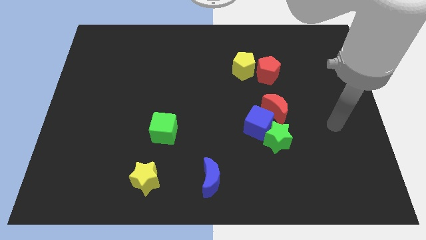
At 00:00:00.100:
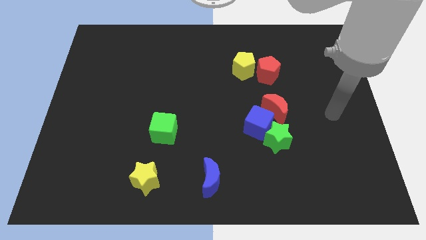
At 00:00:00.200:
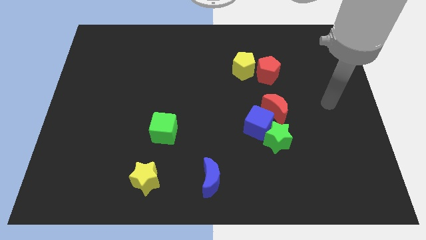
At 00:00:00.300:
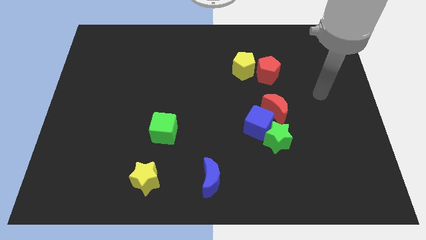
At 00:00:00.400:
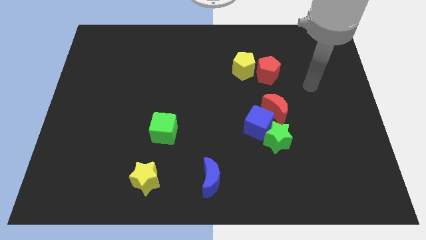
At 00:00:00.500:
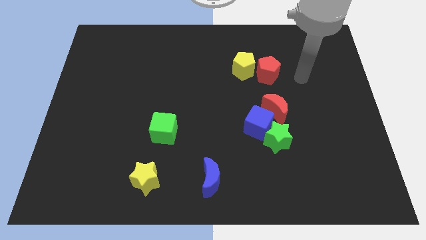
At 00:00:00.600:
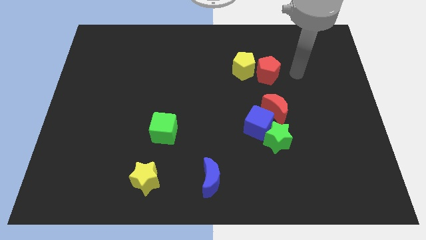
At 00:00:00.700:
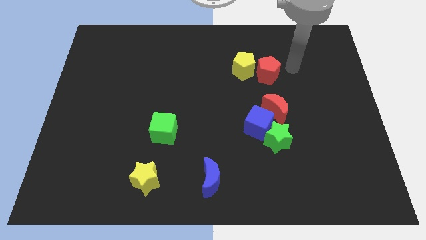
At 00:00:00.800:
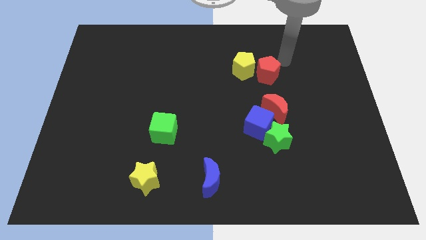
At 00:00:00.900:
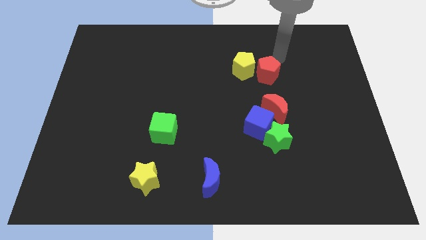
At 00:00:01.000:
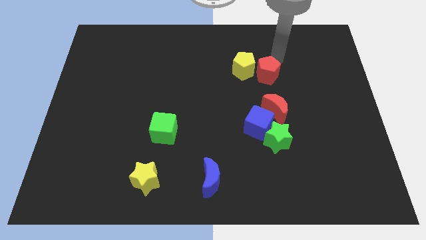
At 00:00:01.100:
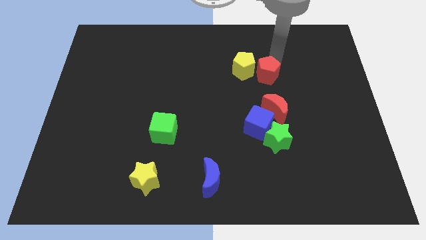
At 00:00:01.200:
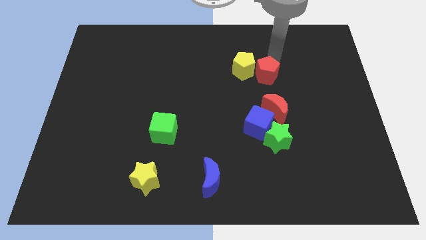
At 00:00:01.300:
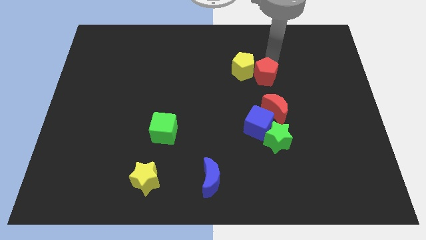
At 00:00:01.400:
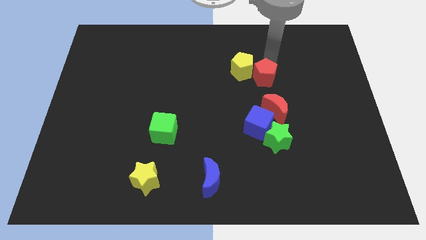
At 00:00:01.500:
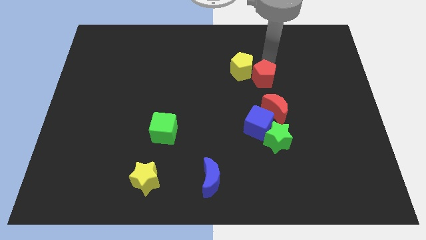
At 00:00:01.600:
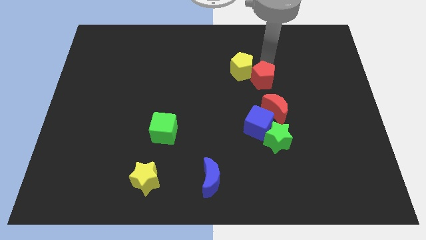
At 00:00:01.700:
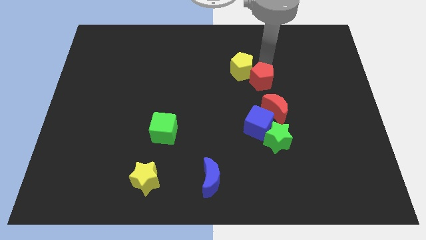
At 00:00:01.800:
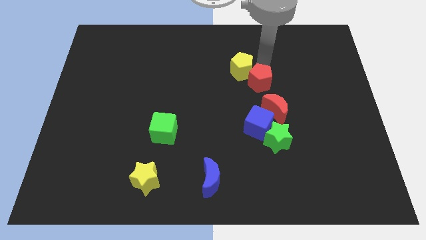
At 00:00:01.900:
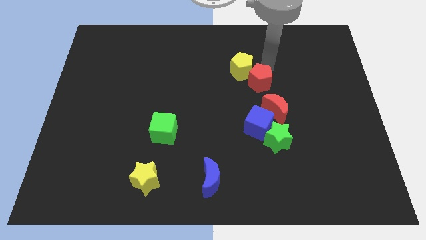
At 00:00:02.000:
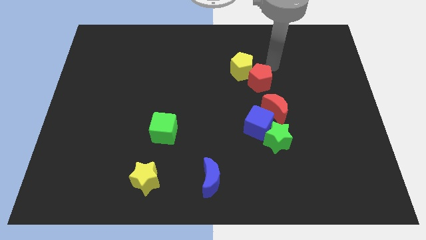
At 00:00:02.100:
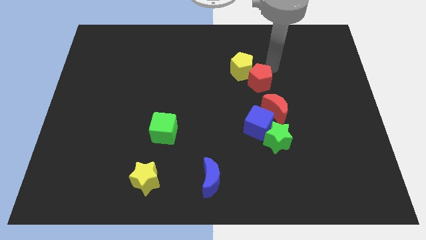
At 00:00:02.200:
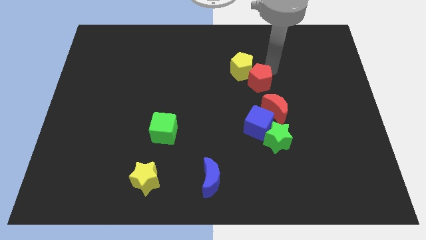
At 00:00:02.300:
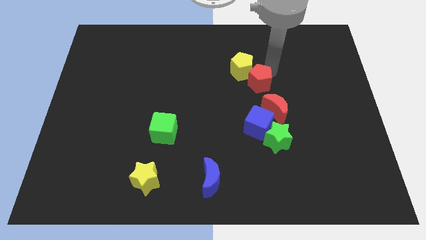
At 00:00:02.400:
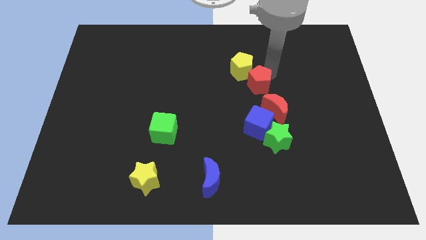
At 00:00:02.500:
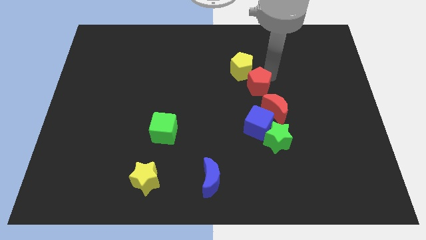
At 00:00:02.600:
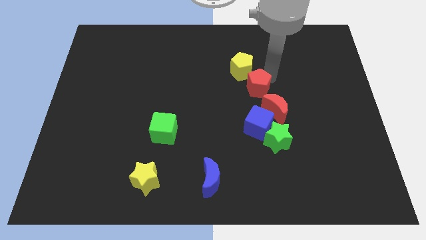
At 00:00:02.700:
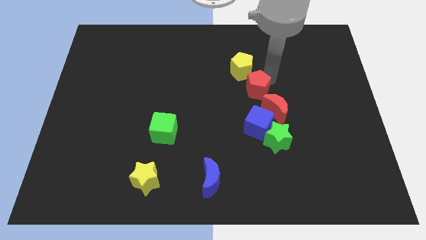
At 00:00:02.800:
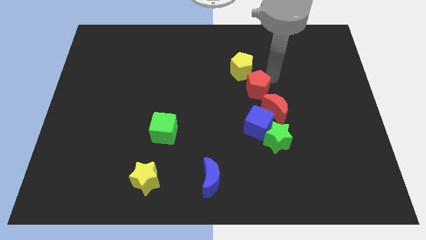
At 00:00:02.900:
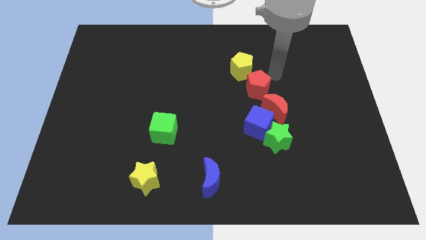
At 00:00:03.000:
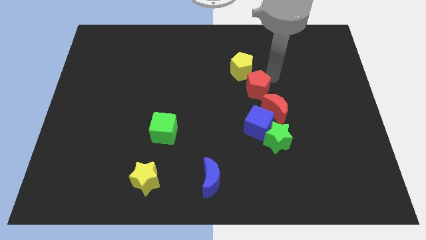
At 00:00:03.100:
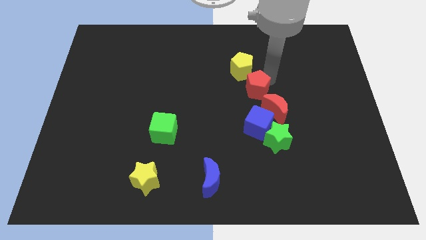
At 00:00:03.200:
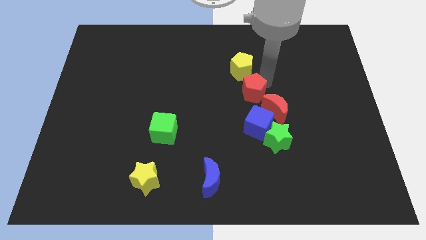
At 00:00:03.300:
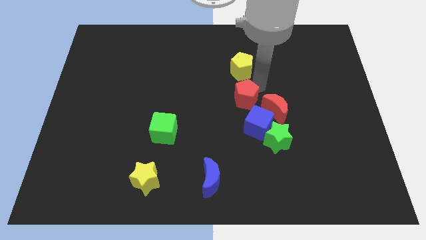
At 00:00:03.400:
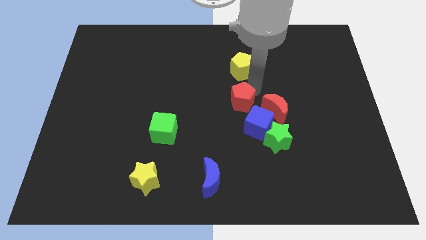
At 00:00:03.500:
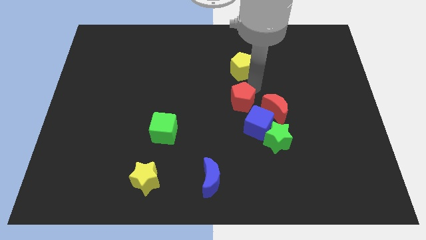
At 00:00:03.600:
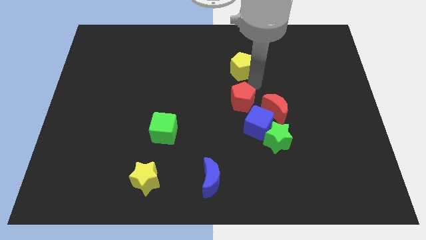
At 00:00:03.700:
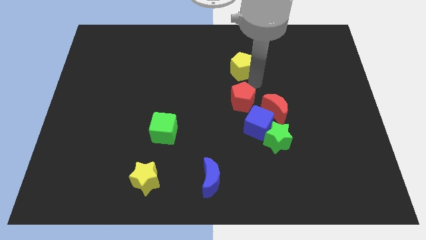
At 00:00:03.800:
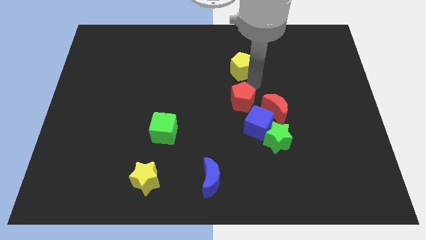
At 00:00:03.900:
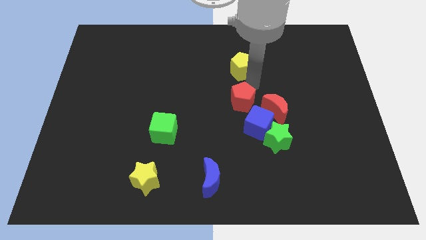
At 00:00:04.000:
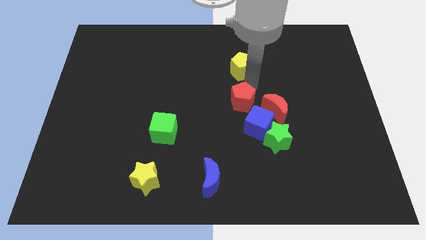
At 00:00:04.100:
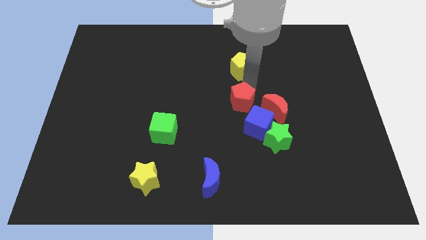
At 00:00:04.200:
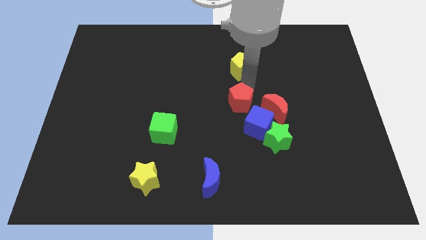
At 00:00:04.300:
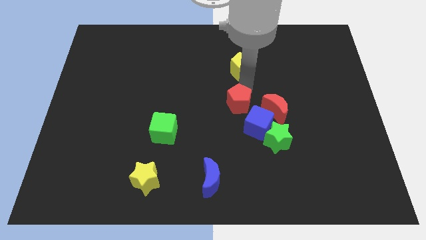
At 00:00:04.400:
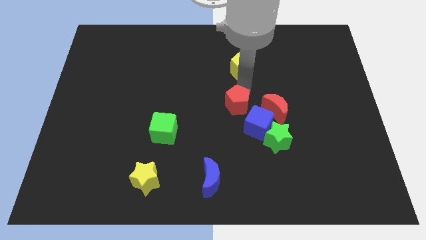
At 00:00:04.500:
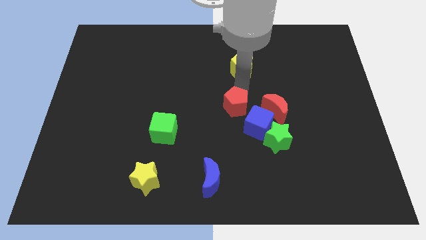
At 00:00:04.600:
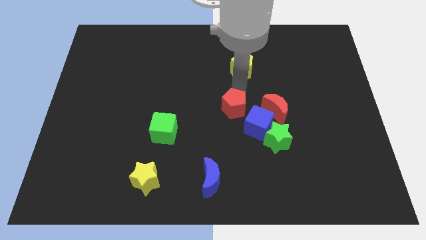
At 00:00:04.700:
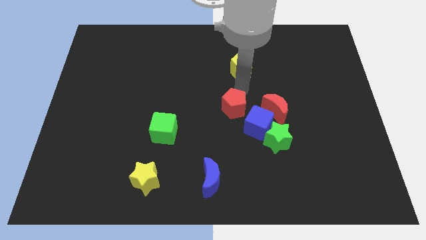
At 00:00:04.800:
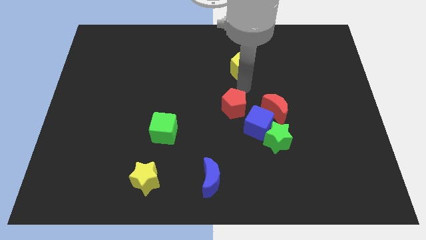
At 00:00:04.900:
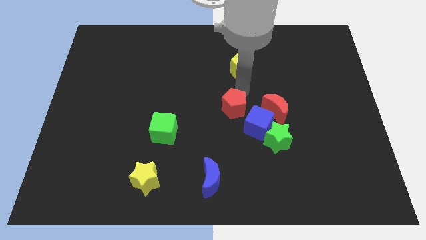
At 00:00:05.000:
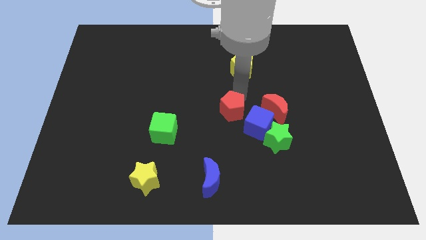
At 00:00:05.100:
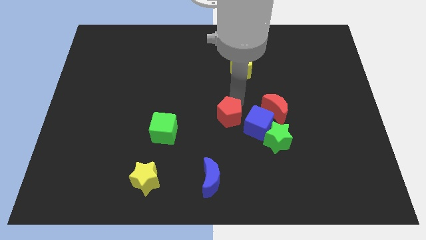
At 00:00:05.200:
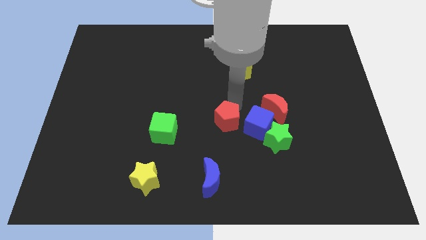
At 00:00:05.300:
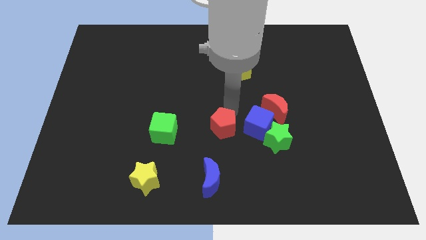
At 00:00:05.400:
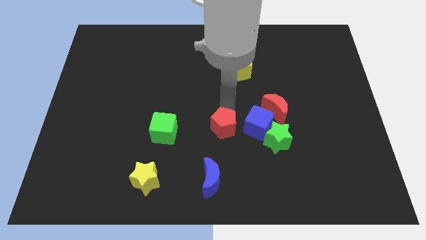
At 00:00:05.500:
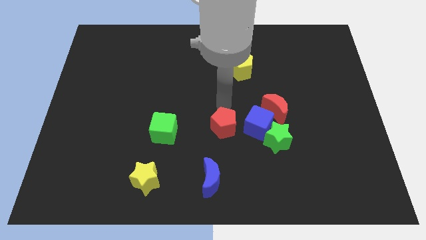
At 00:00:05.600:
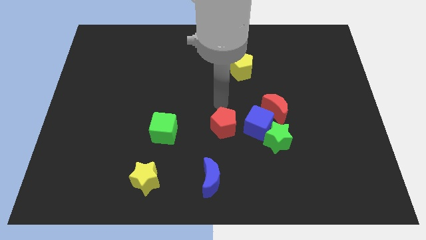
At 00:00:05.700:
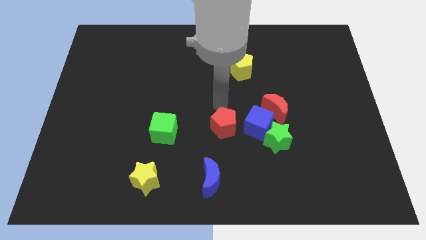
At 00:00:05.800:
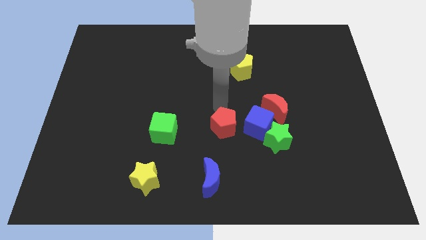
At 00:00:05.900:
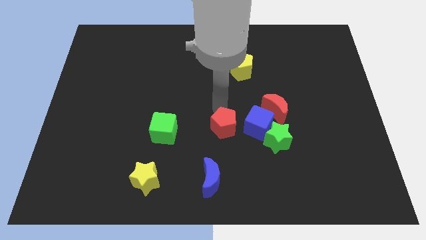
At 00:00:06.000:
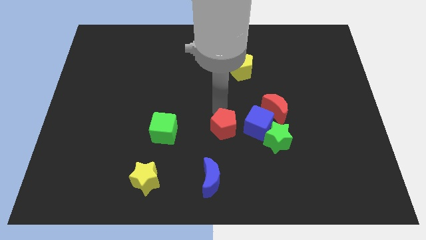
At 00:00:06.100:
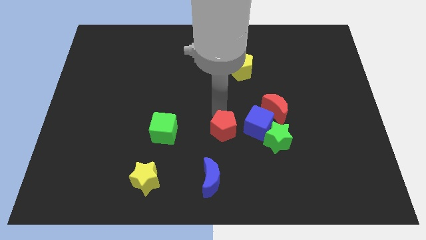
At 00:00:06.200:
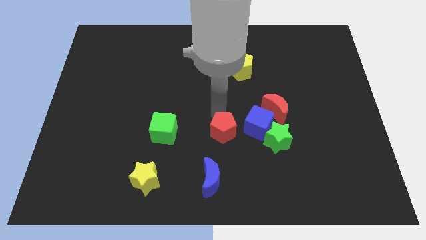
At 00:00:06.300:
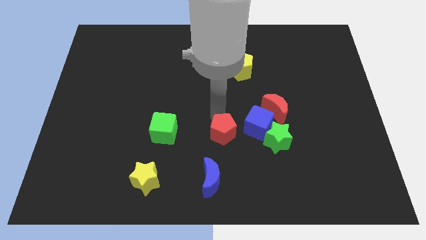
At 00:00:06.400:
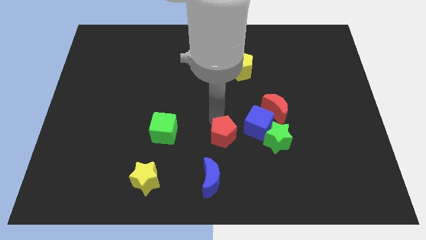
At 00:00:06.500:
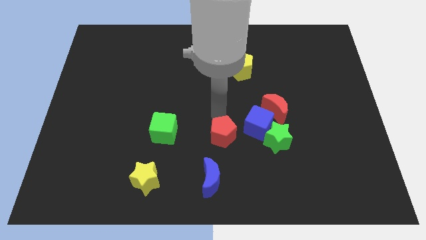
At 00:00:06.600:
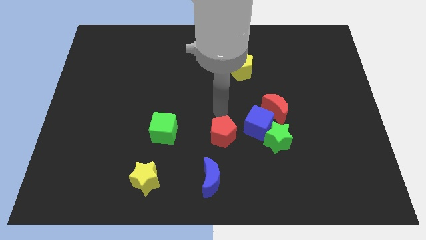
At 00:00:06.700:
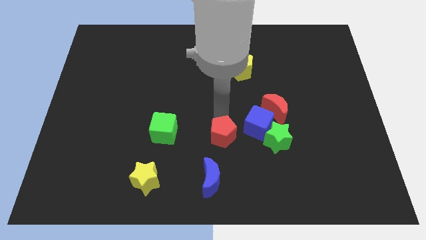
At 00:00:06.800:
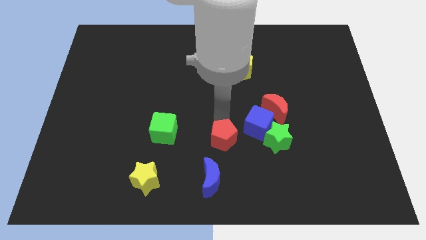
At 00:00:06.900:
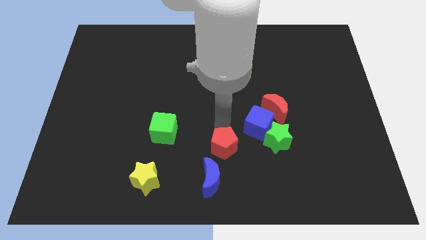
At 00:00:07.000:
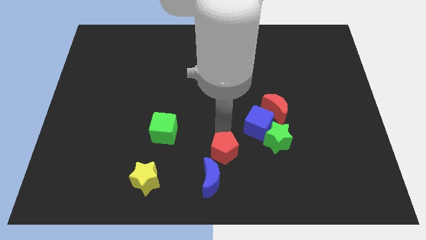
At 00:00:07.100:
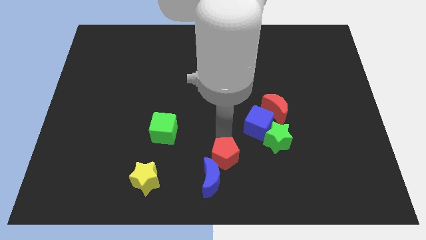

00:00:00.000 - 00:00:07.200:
move the red pentagon to the bottom side
